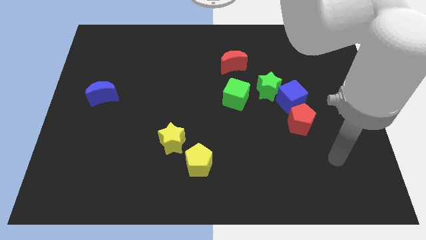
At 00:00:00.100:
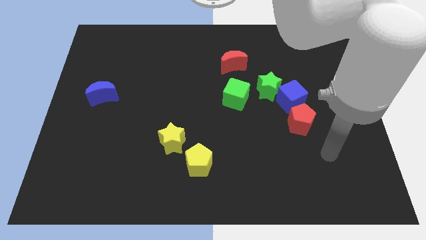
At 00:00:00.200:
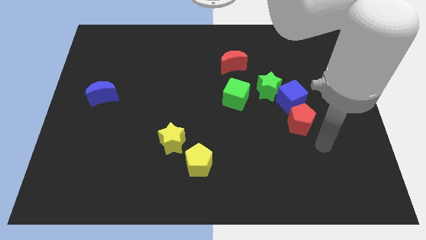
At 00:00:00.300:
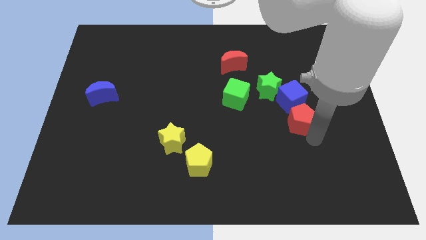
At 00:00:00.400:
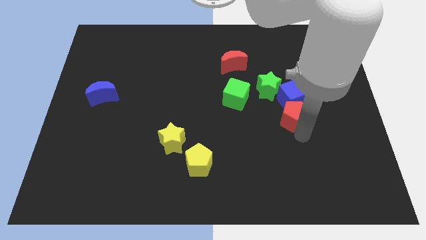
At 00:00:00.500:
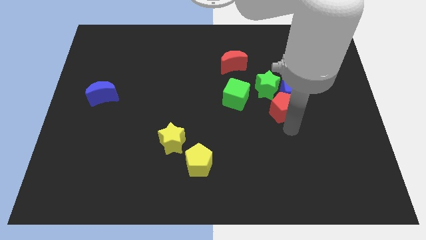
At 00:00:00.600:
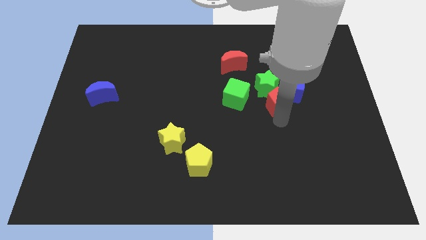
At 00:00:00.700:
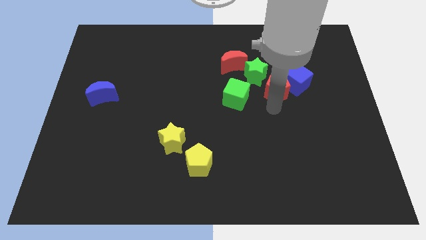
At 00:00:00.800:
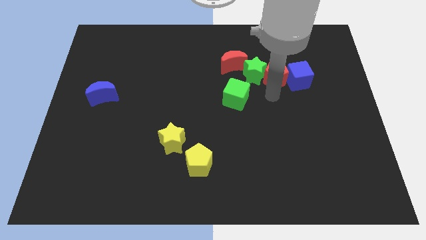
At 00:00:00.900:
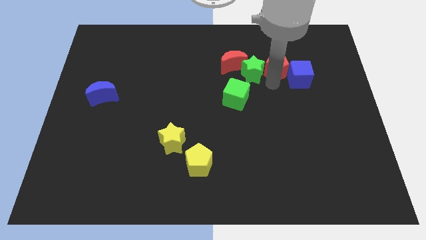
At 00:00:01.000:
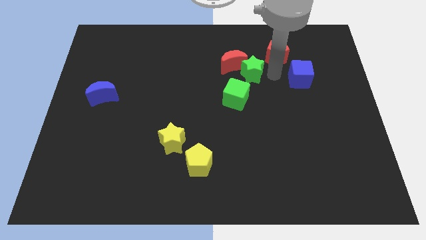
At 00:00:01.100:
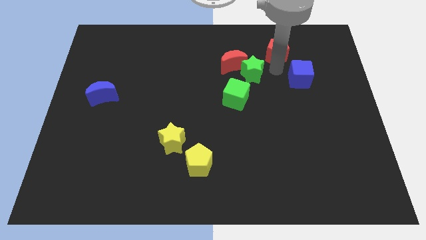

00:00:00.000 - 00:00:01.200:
separate the blue cube from the green star and red pentagon

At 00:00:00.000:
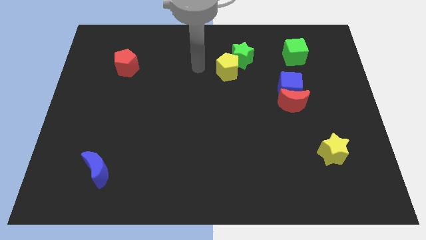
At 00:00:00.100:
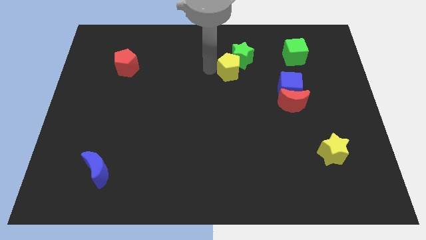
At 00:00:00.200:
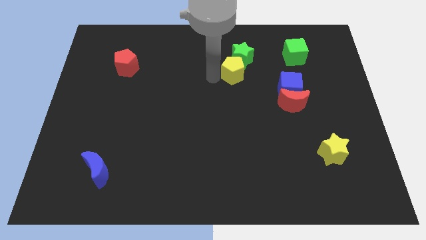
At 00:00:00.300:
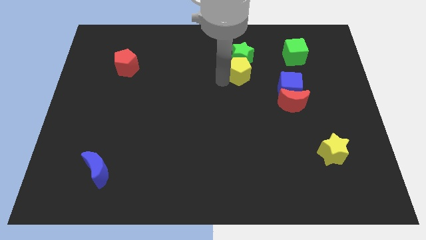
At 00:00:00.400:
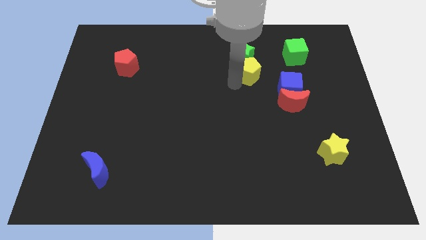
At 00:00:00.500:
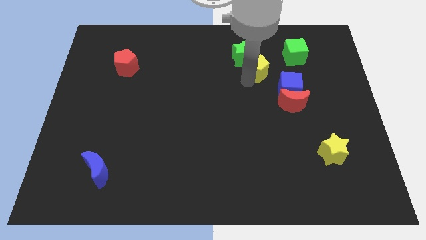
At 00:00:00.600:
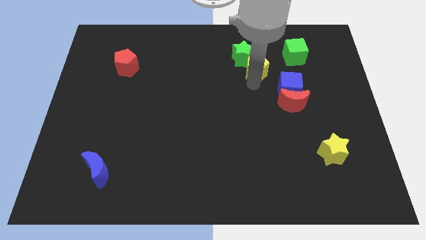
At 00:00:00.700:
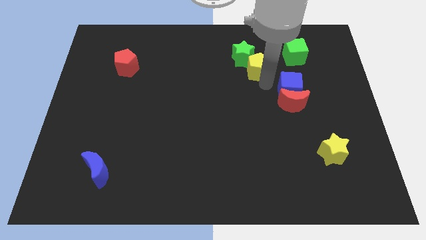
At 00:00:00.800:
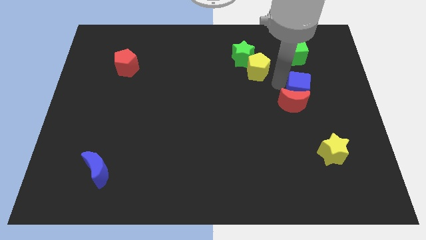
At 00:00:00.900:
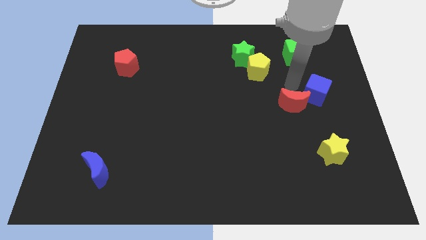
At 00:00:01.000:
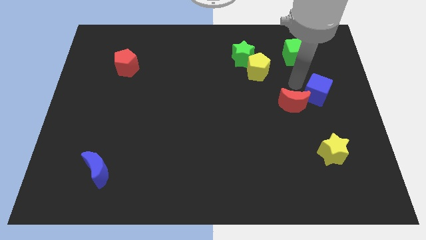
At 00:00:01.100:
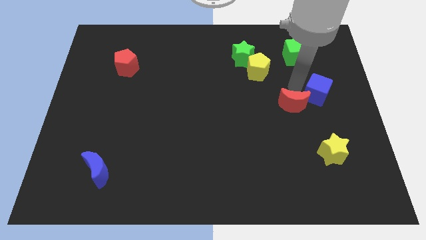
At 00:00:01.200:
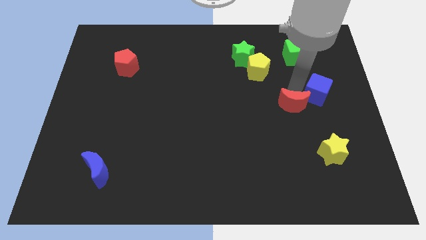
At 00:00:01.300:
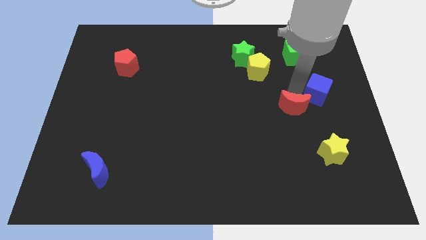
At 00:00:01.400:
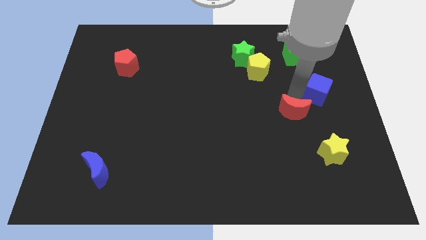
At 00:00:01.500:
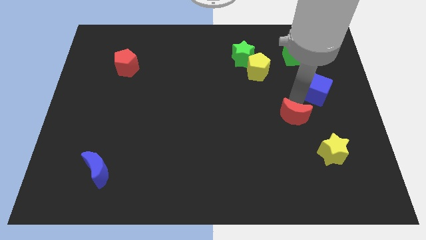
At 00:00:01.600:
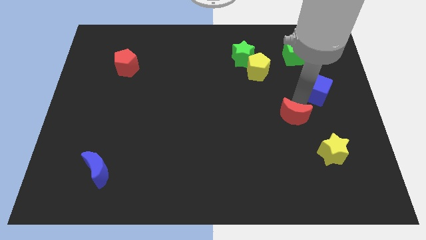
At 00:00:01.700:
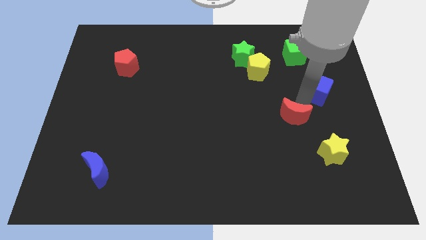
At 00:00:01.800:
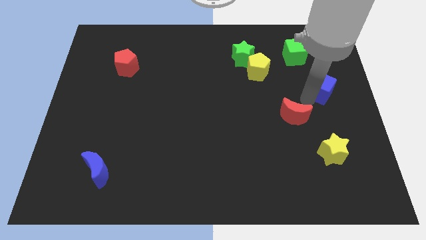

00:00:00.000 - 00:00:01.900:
separate the red moon from the blue cube

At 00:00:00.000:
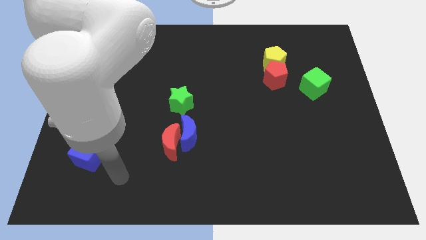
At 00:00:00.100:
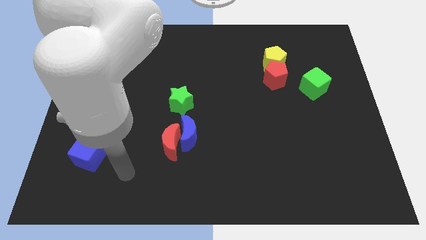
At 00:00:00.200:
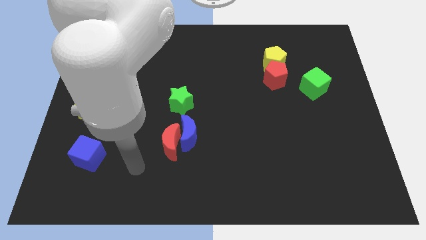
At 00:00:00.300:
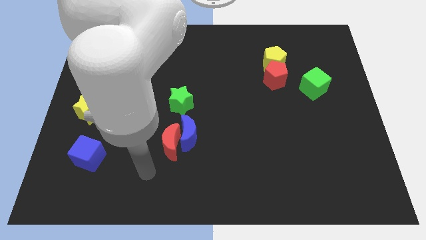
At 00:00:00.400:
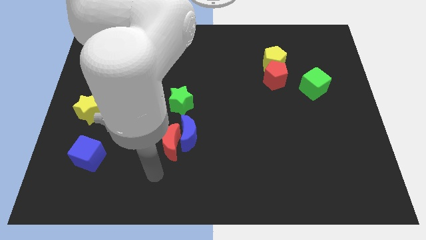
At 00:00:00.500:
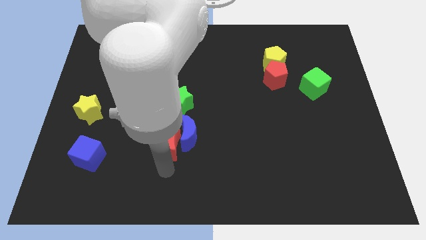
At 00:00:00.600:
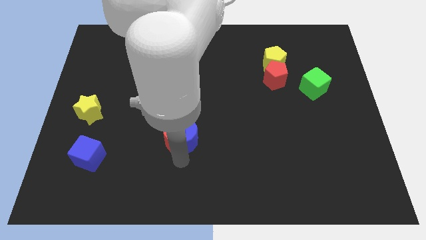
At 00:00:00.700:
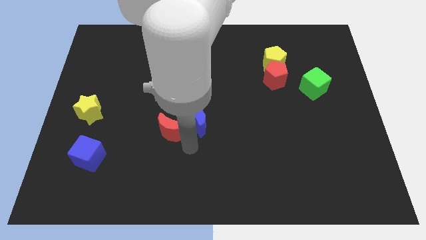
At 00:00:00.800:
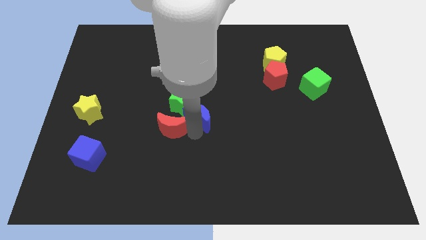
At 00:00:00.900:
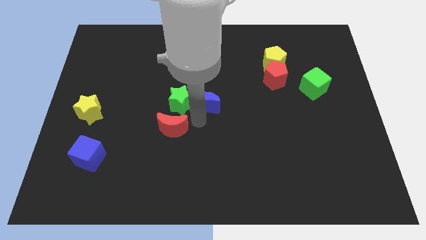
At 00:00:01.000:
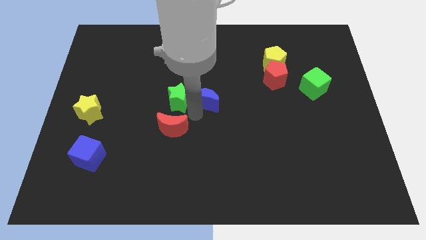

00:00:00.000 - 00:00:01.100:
pull the red moon apart from the blue moon

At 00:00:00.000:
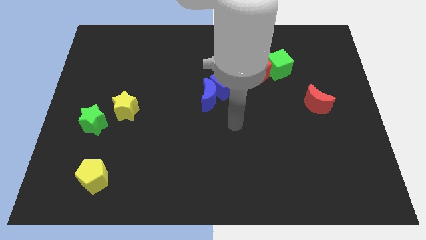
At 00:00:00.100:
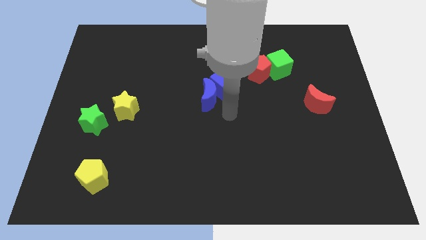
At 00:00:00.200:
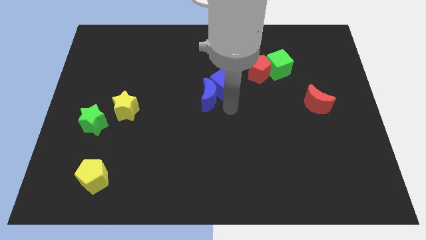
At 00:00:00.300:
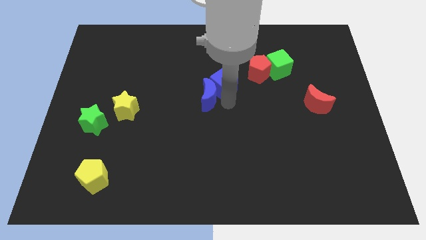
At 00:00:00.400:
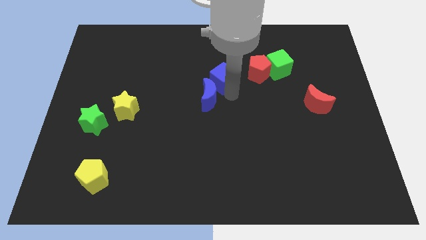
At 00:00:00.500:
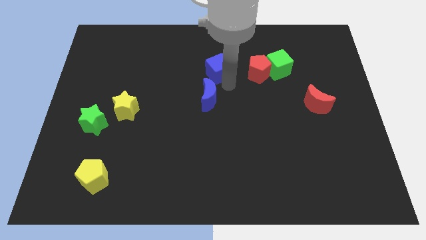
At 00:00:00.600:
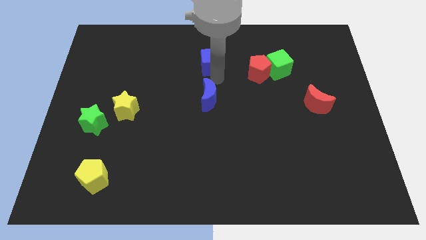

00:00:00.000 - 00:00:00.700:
move the blue moon away from the blue cube

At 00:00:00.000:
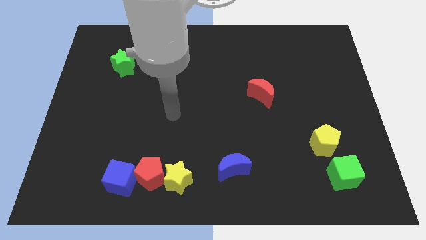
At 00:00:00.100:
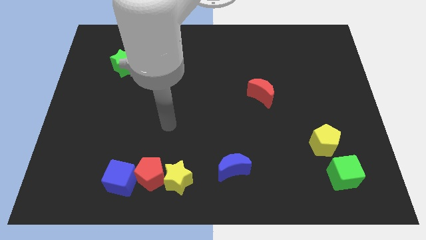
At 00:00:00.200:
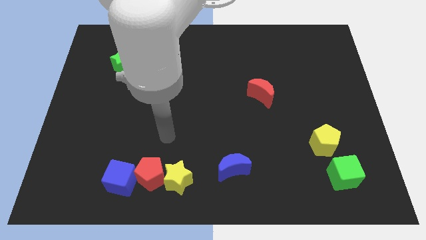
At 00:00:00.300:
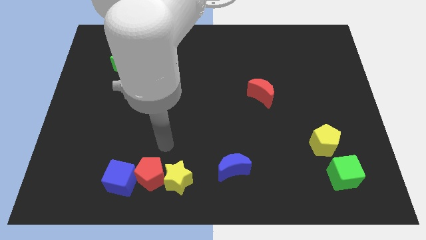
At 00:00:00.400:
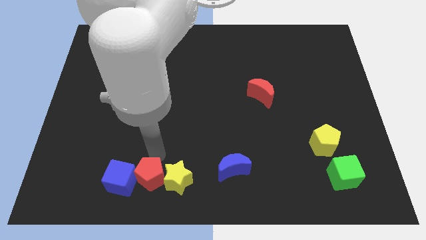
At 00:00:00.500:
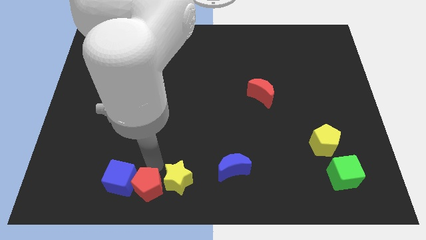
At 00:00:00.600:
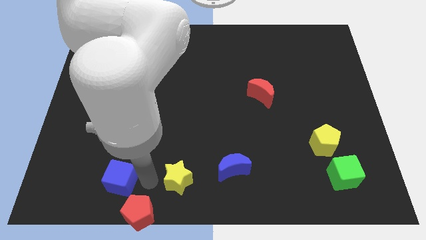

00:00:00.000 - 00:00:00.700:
move the yellow star away from the red pentagon

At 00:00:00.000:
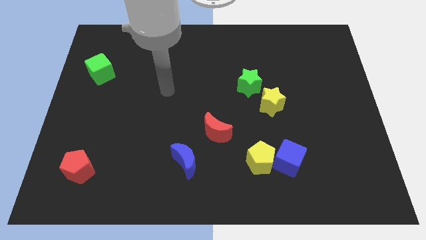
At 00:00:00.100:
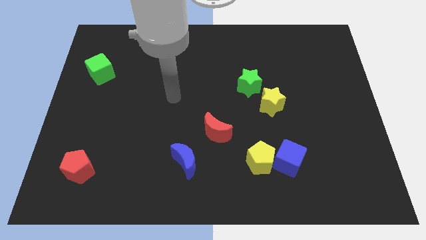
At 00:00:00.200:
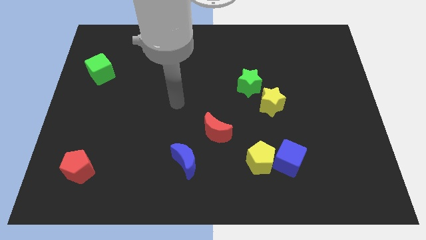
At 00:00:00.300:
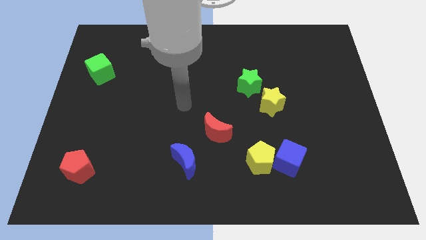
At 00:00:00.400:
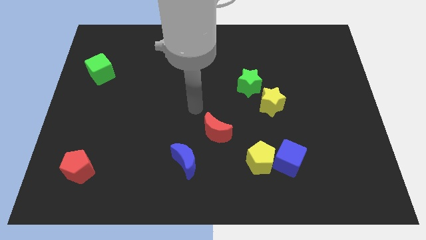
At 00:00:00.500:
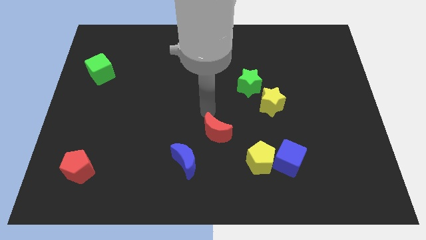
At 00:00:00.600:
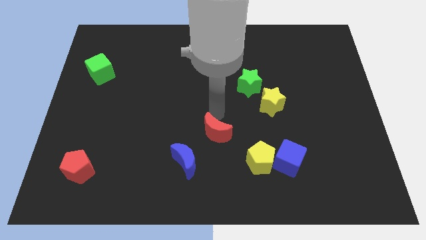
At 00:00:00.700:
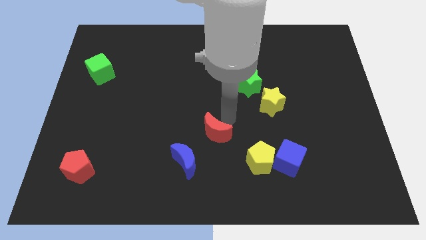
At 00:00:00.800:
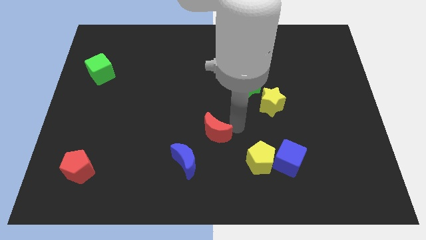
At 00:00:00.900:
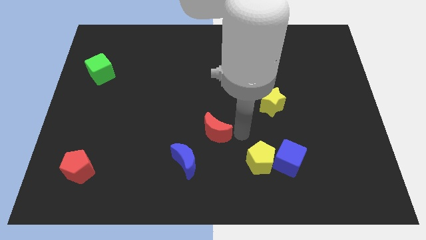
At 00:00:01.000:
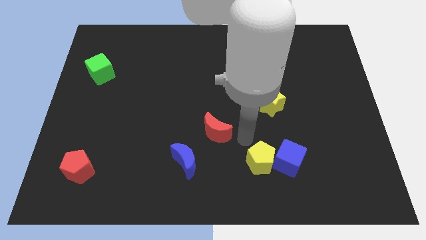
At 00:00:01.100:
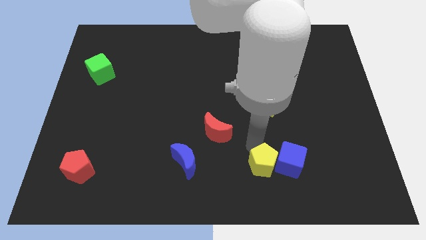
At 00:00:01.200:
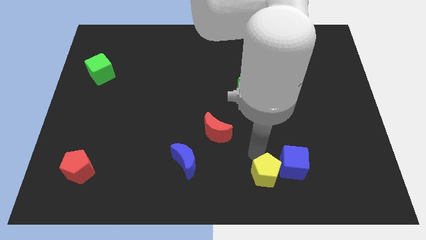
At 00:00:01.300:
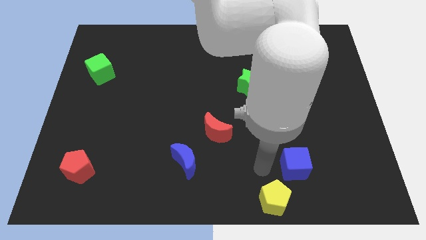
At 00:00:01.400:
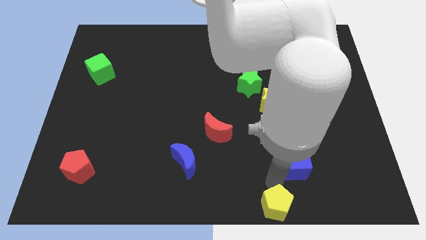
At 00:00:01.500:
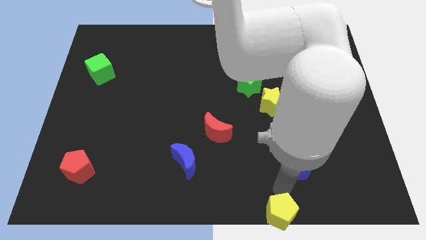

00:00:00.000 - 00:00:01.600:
separate the blue cube from the yellow pentagon

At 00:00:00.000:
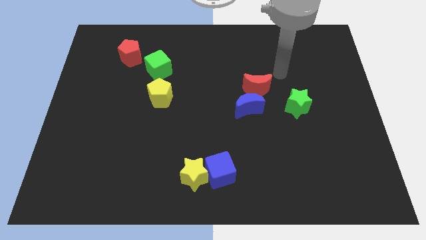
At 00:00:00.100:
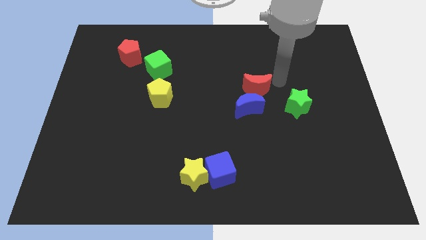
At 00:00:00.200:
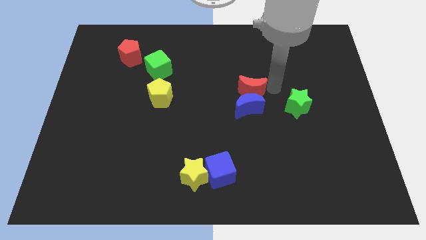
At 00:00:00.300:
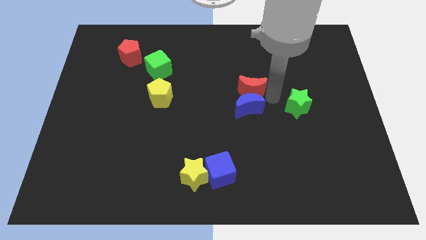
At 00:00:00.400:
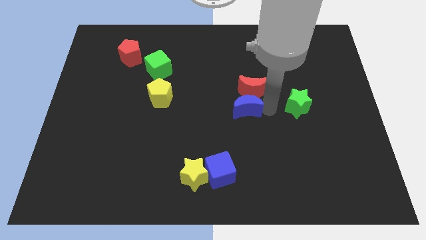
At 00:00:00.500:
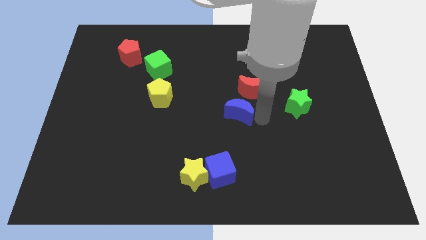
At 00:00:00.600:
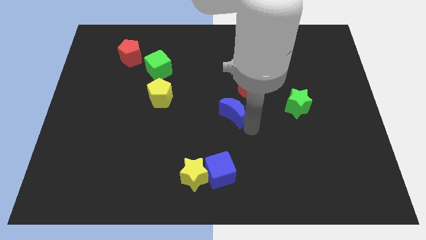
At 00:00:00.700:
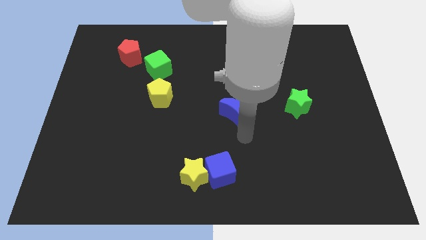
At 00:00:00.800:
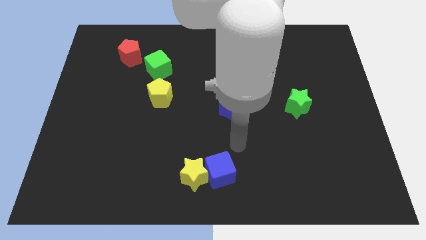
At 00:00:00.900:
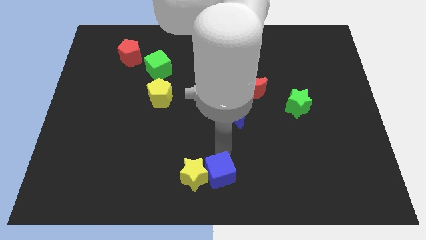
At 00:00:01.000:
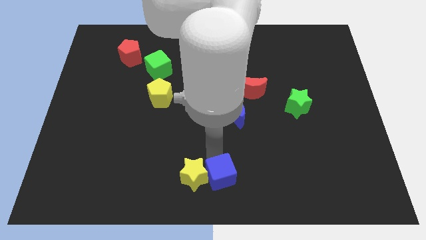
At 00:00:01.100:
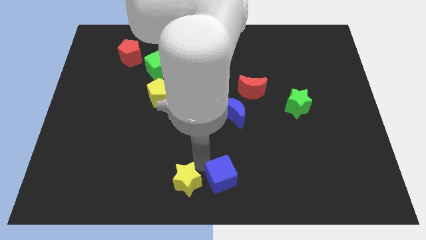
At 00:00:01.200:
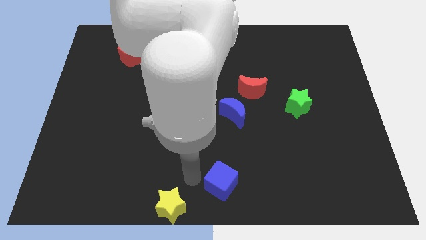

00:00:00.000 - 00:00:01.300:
pull the blue cube apart from the yellow star

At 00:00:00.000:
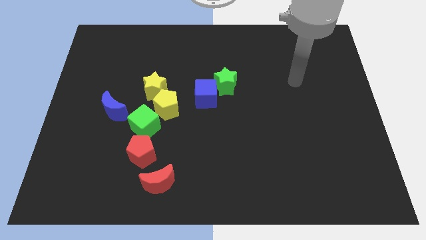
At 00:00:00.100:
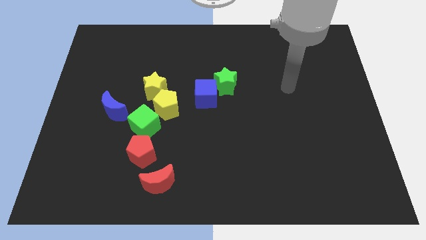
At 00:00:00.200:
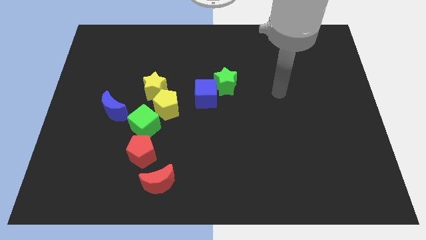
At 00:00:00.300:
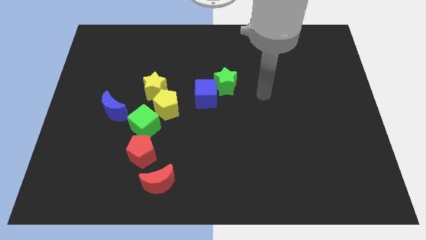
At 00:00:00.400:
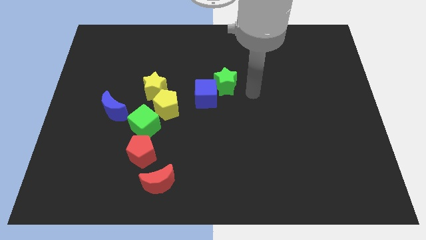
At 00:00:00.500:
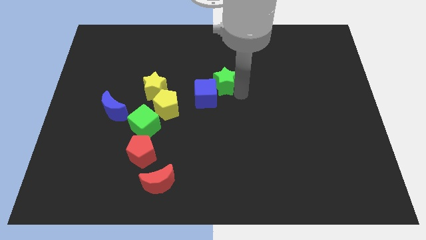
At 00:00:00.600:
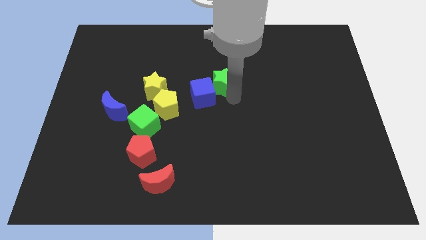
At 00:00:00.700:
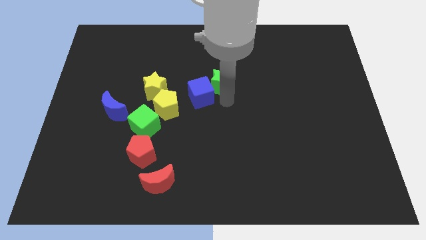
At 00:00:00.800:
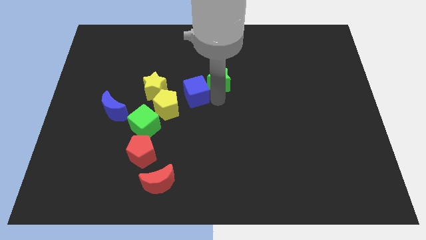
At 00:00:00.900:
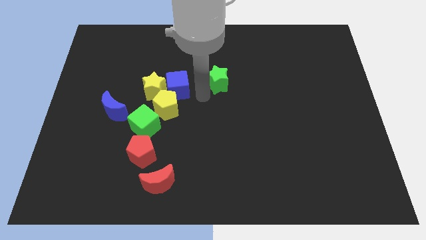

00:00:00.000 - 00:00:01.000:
separate the green star from the blue cube
